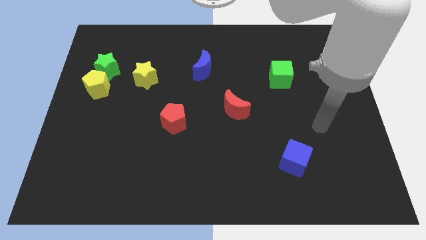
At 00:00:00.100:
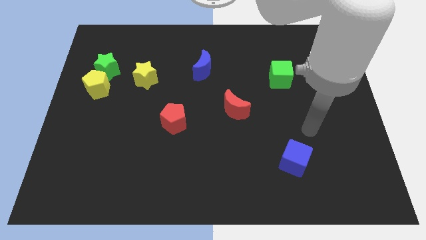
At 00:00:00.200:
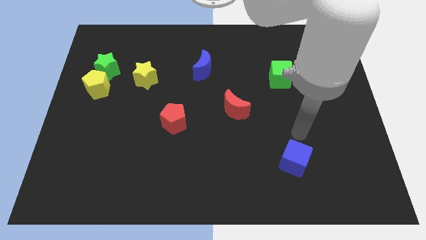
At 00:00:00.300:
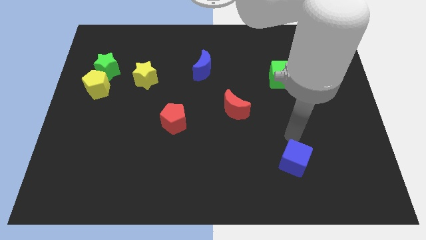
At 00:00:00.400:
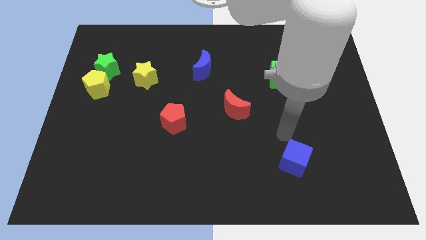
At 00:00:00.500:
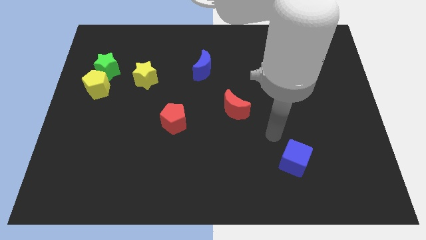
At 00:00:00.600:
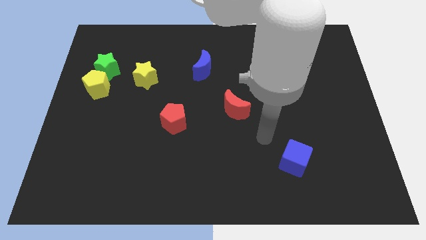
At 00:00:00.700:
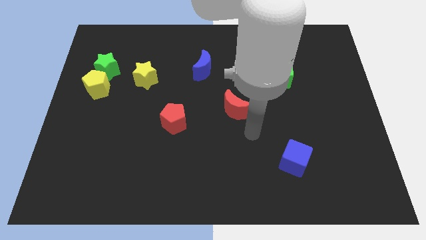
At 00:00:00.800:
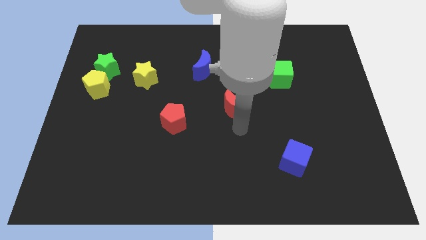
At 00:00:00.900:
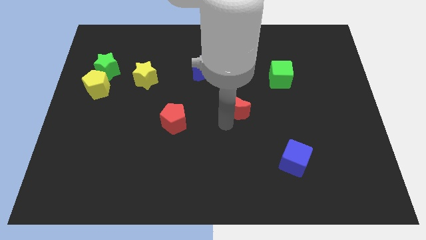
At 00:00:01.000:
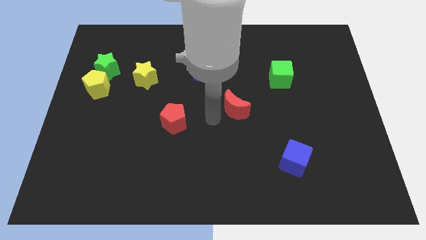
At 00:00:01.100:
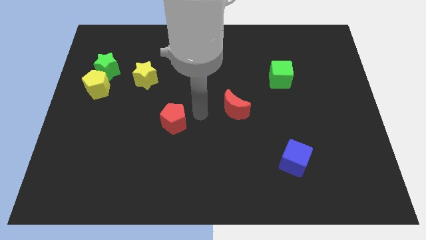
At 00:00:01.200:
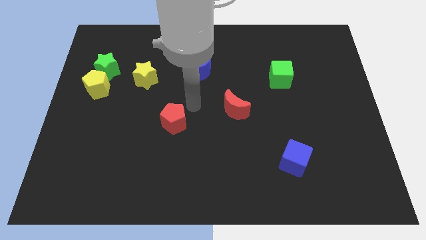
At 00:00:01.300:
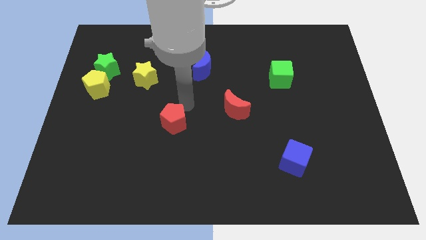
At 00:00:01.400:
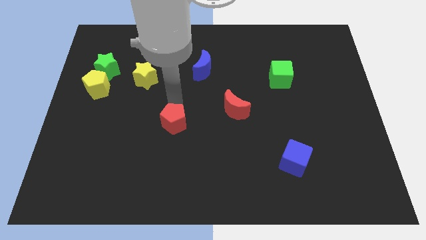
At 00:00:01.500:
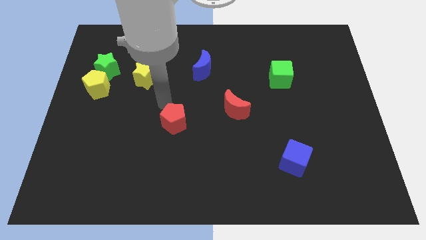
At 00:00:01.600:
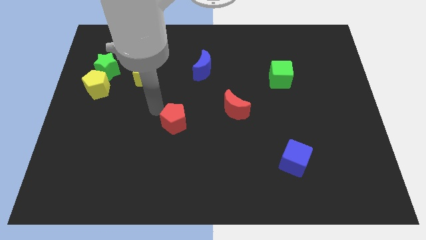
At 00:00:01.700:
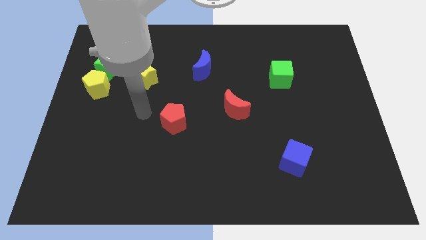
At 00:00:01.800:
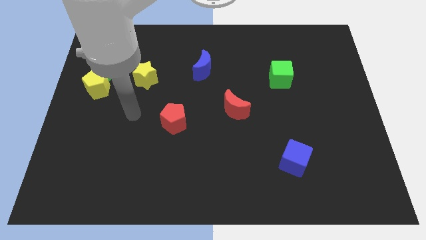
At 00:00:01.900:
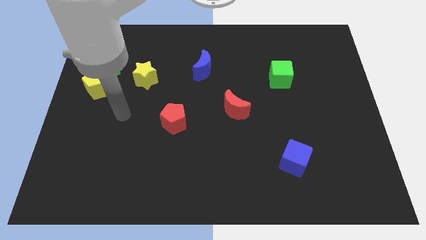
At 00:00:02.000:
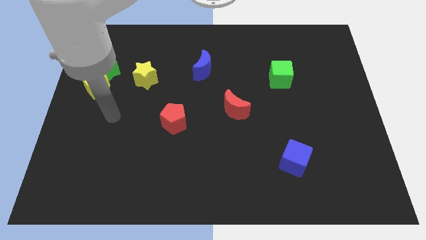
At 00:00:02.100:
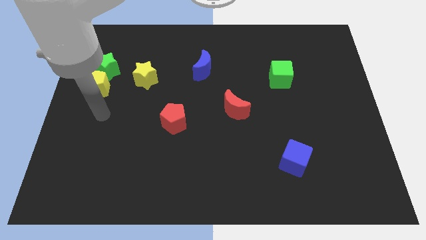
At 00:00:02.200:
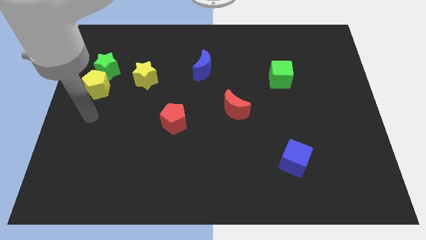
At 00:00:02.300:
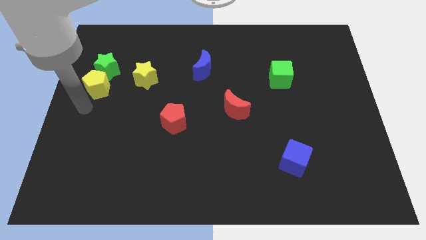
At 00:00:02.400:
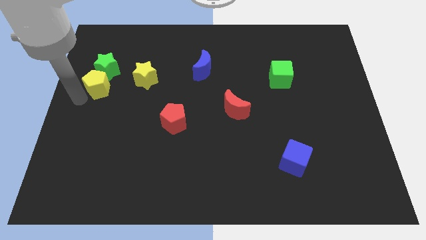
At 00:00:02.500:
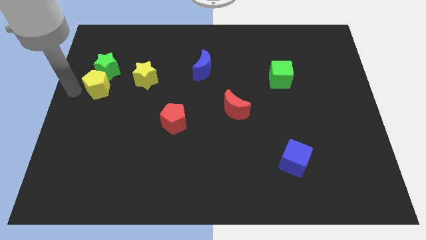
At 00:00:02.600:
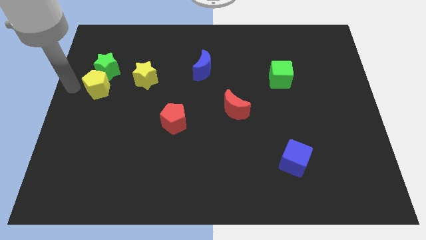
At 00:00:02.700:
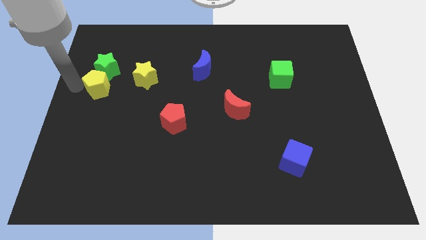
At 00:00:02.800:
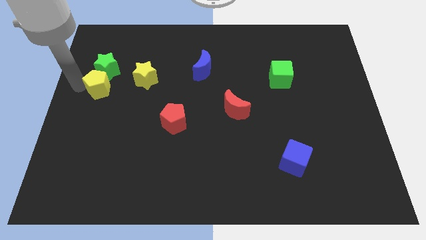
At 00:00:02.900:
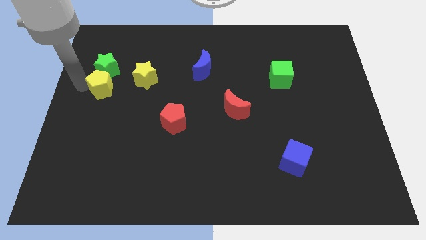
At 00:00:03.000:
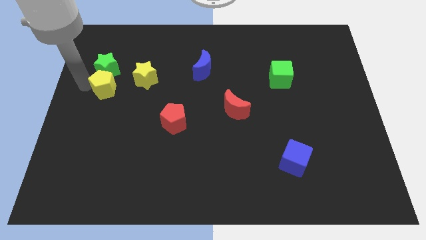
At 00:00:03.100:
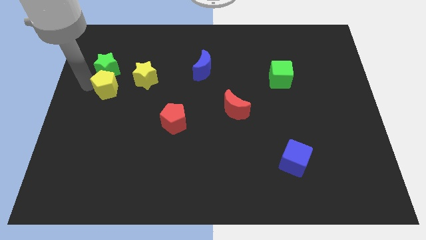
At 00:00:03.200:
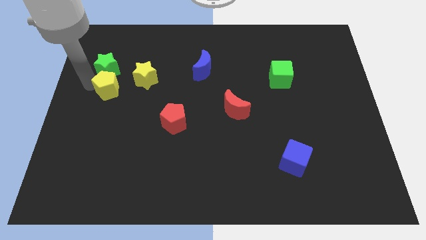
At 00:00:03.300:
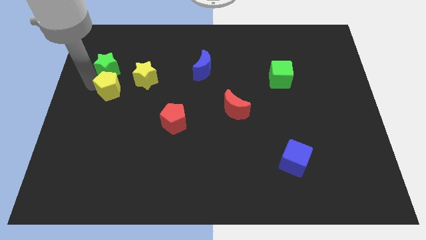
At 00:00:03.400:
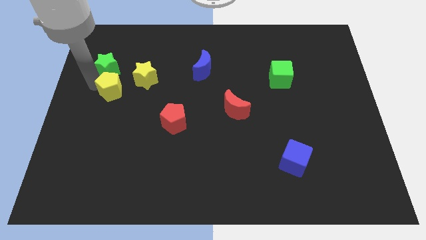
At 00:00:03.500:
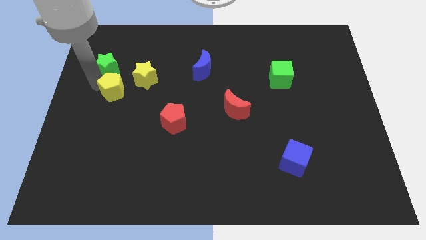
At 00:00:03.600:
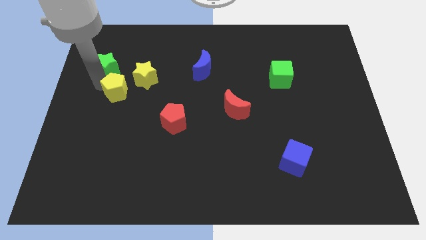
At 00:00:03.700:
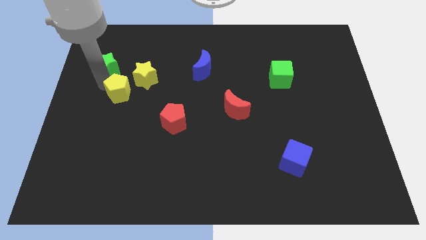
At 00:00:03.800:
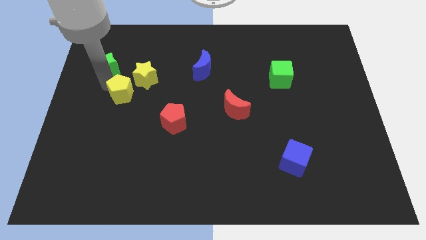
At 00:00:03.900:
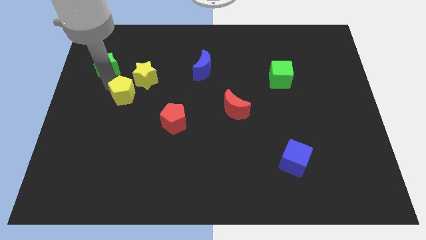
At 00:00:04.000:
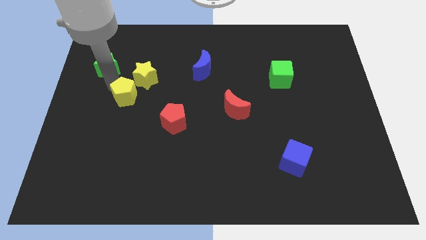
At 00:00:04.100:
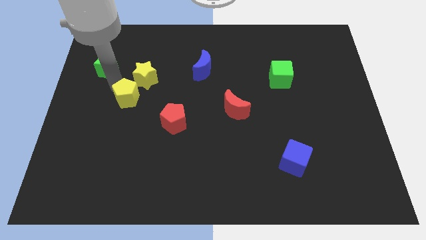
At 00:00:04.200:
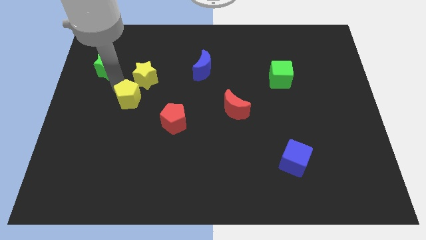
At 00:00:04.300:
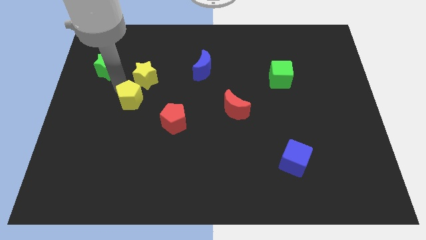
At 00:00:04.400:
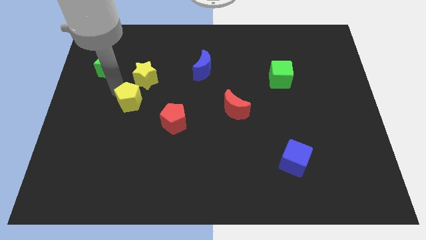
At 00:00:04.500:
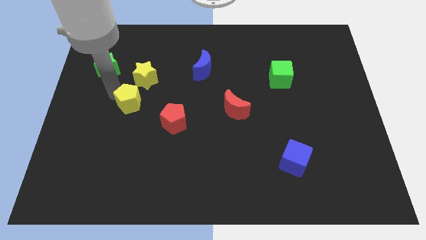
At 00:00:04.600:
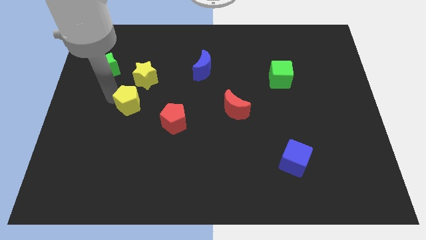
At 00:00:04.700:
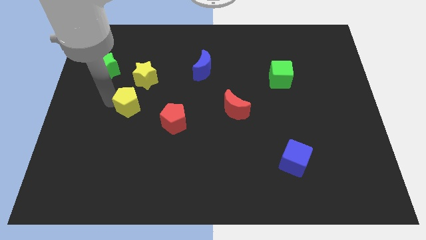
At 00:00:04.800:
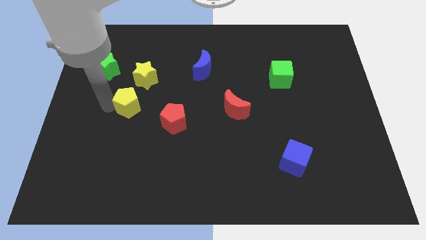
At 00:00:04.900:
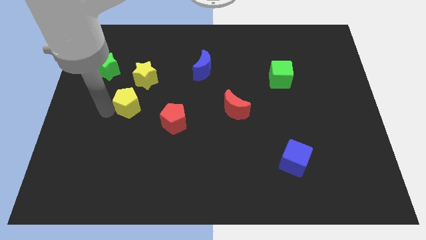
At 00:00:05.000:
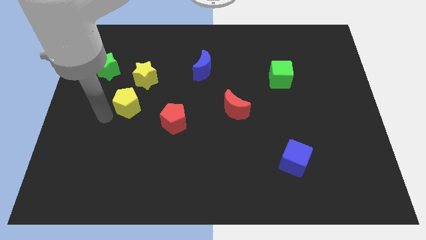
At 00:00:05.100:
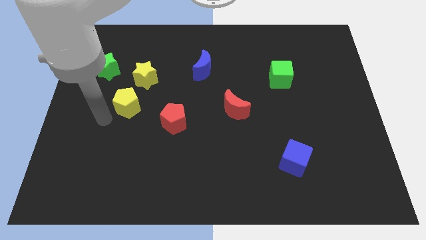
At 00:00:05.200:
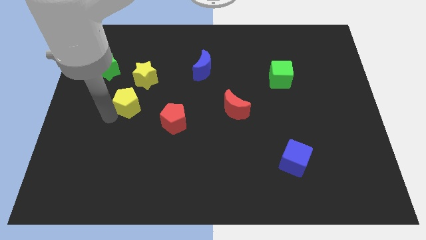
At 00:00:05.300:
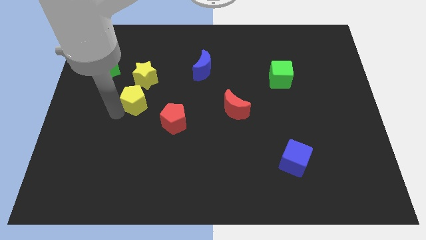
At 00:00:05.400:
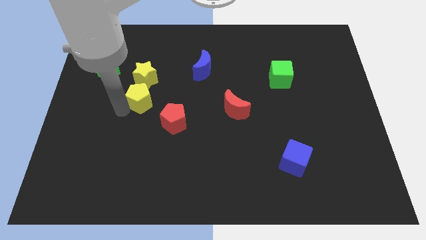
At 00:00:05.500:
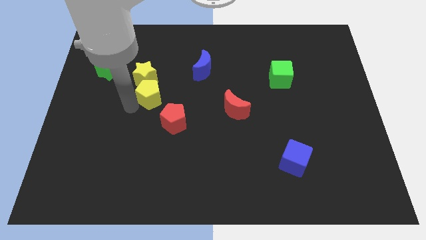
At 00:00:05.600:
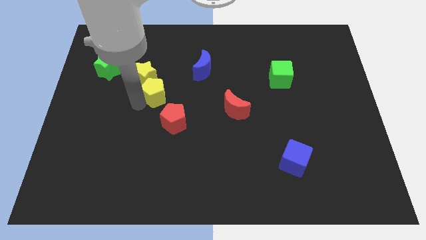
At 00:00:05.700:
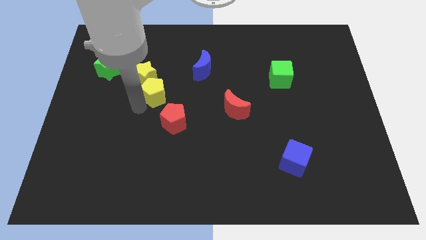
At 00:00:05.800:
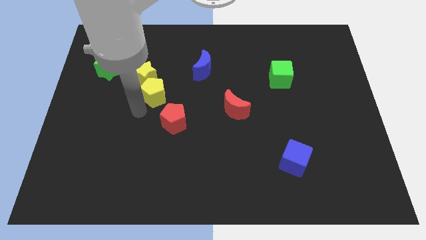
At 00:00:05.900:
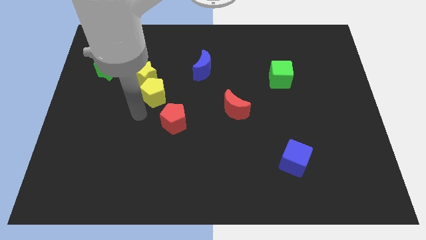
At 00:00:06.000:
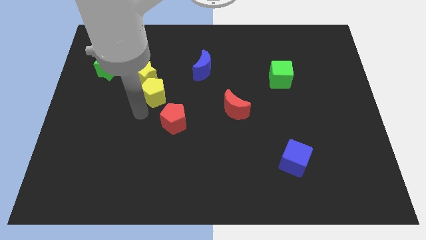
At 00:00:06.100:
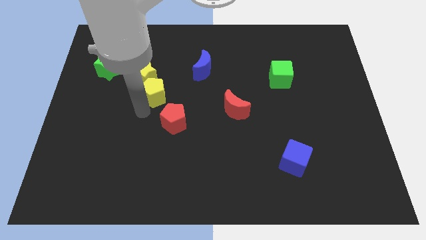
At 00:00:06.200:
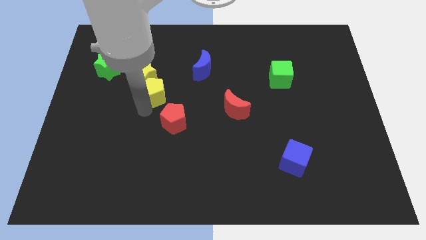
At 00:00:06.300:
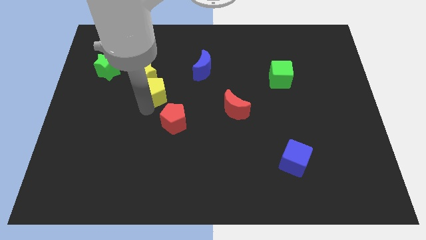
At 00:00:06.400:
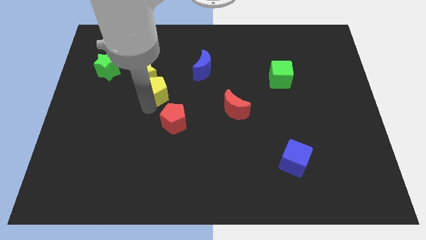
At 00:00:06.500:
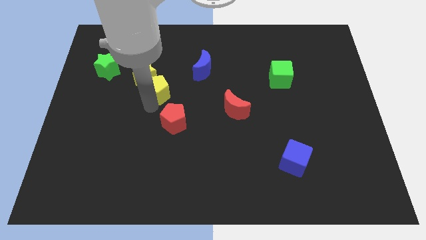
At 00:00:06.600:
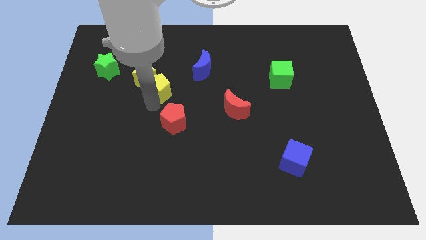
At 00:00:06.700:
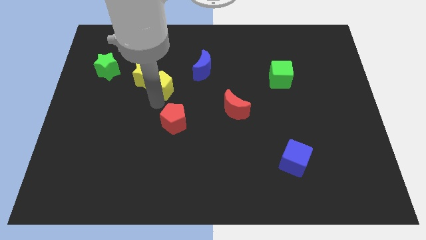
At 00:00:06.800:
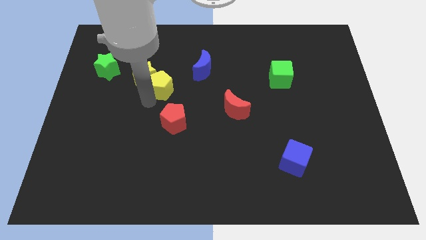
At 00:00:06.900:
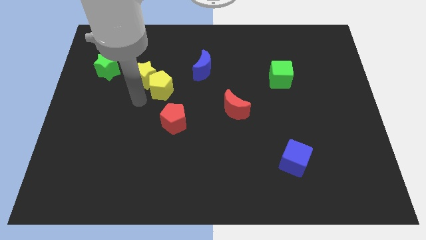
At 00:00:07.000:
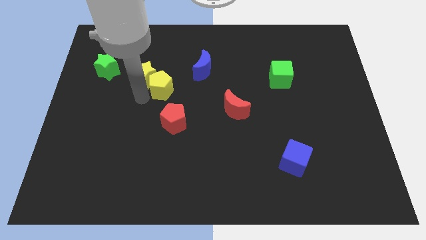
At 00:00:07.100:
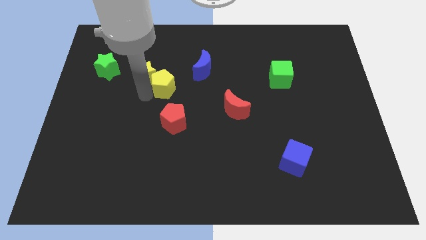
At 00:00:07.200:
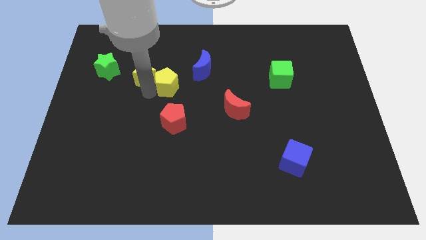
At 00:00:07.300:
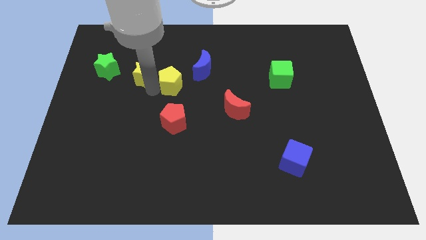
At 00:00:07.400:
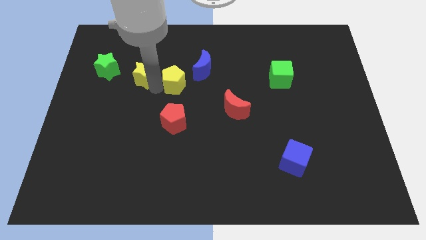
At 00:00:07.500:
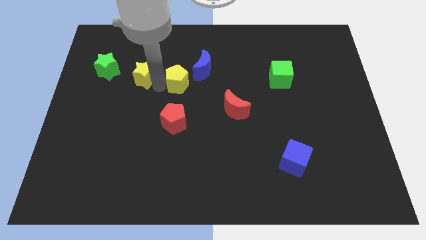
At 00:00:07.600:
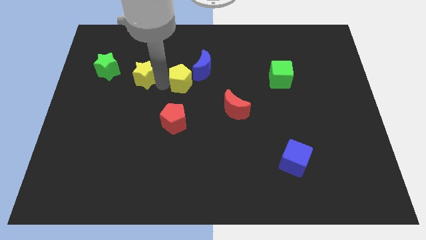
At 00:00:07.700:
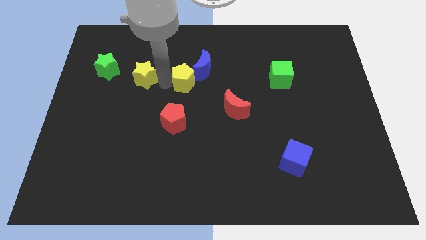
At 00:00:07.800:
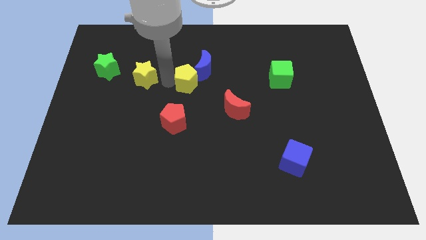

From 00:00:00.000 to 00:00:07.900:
push the yellow pentagon next to the blue moon
